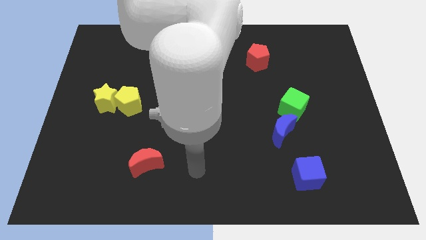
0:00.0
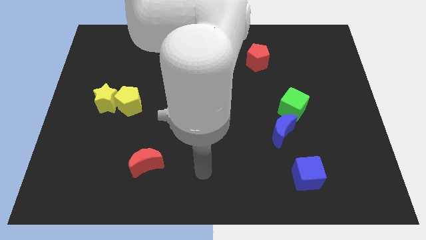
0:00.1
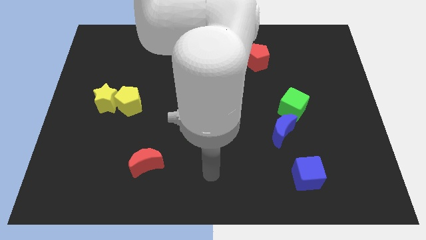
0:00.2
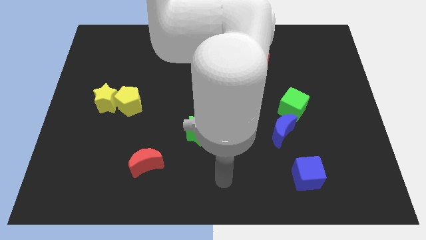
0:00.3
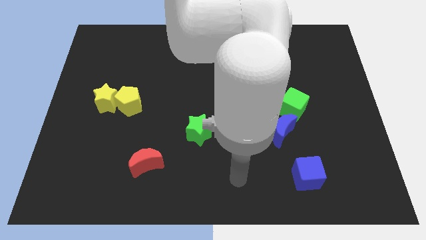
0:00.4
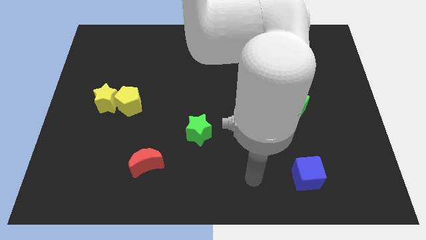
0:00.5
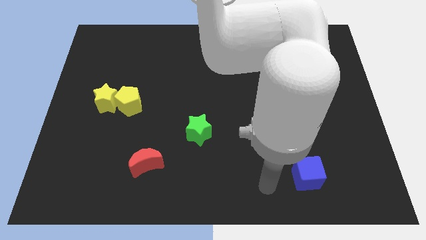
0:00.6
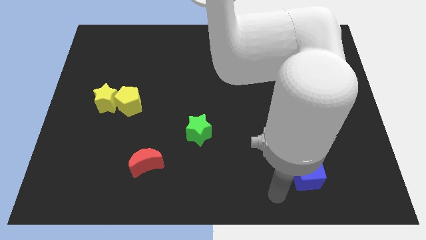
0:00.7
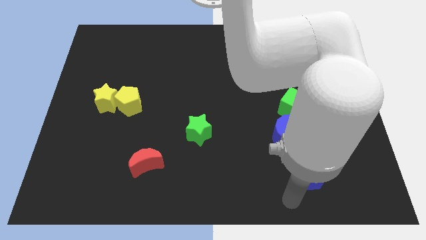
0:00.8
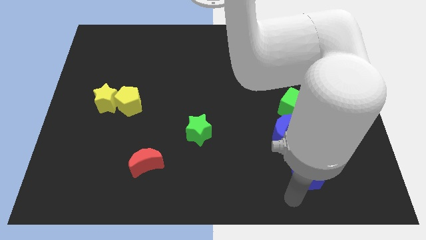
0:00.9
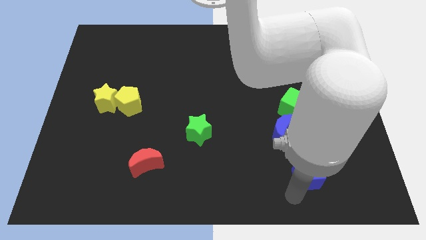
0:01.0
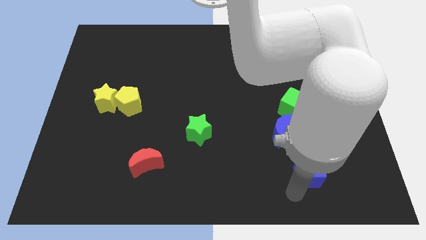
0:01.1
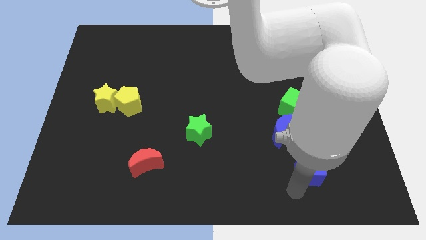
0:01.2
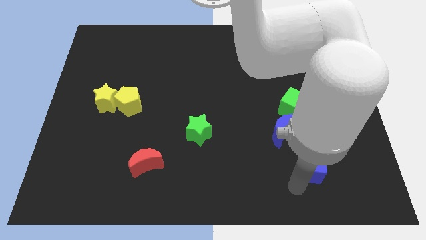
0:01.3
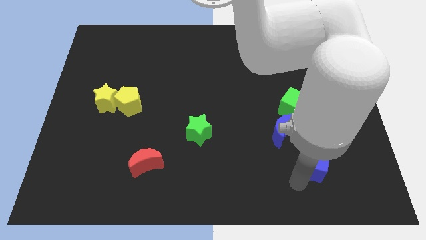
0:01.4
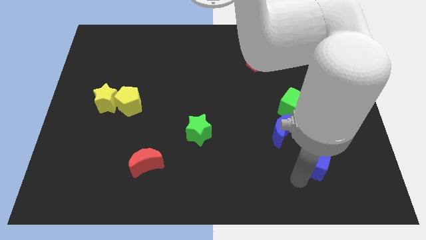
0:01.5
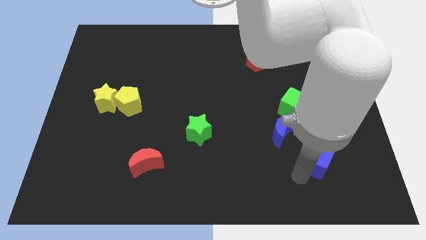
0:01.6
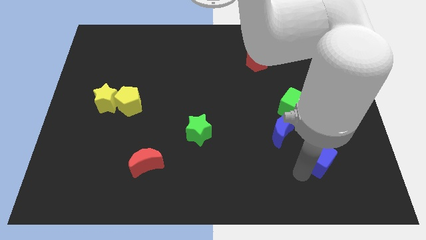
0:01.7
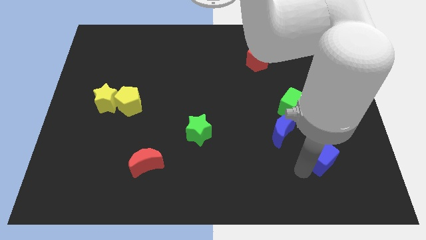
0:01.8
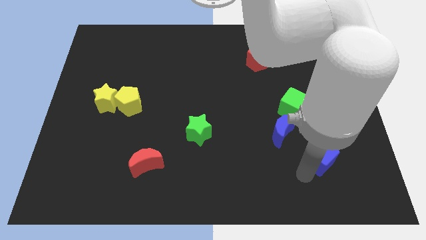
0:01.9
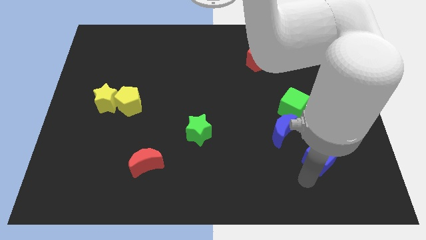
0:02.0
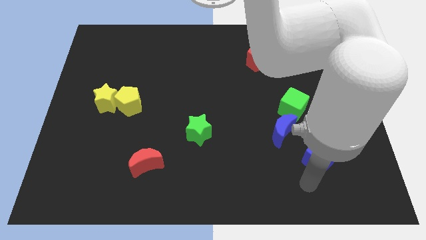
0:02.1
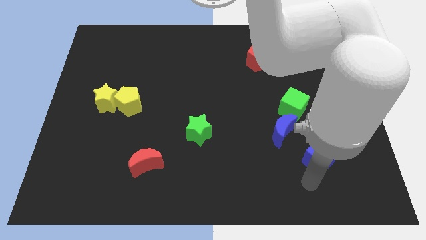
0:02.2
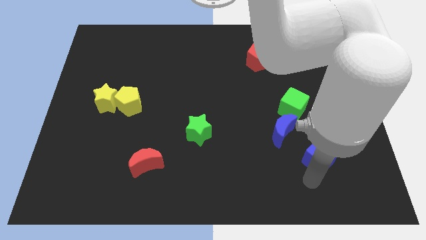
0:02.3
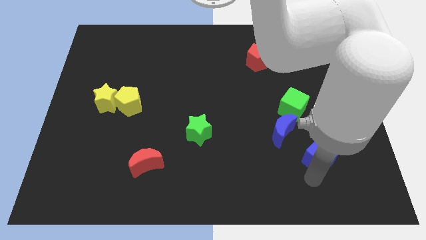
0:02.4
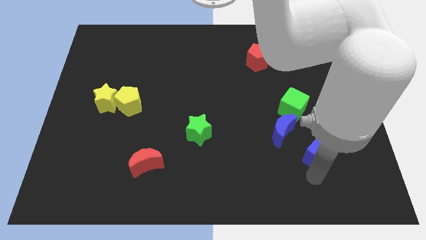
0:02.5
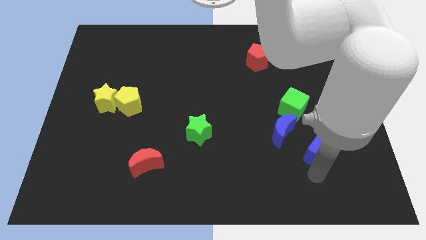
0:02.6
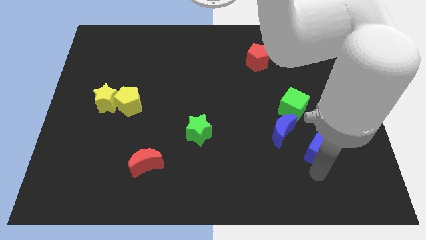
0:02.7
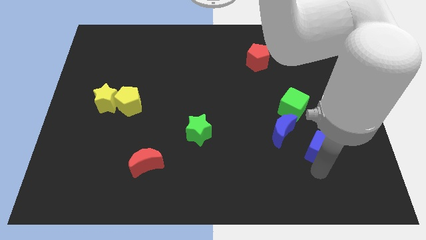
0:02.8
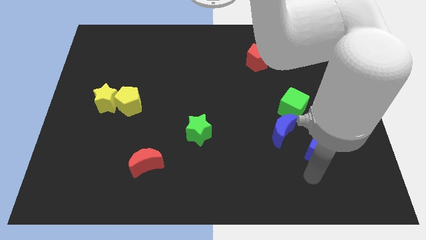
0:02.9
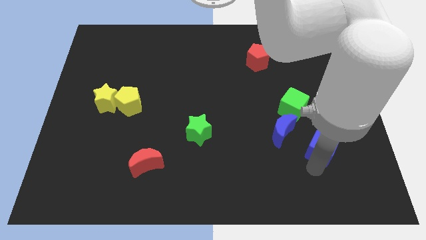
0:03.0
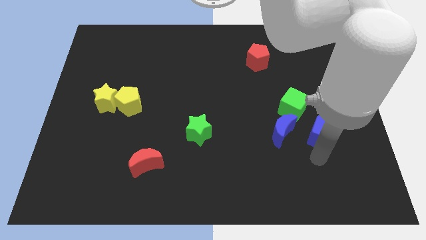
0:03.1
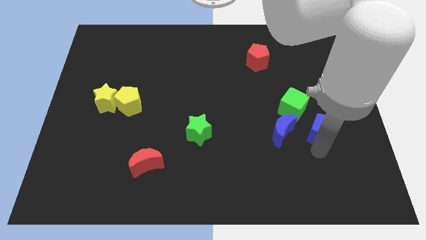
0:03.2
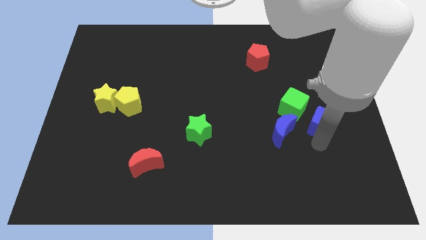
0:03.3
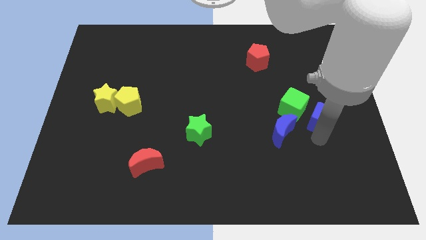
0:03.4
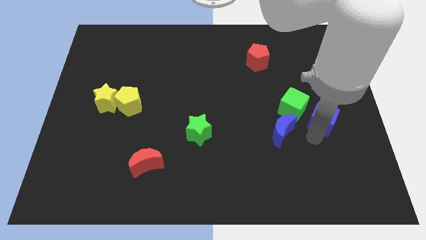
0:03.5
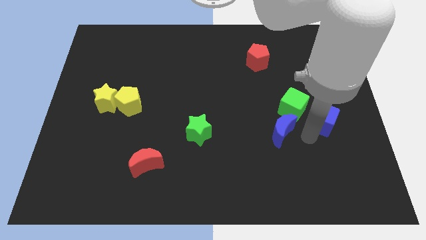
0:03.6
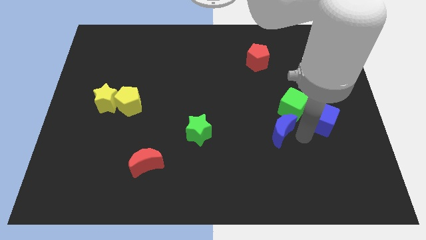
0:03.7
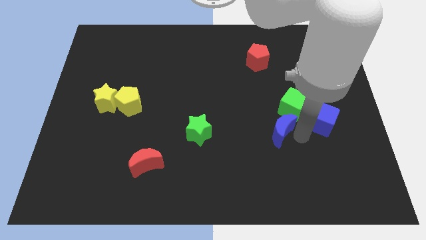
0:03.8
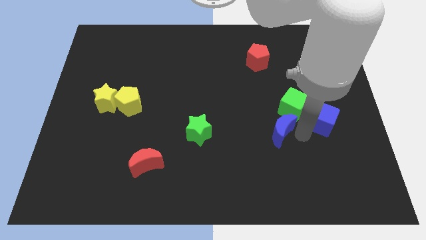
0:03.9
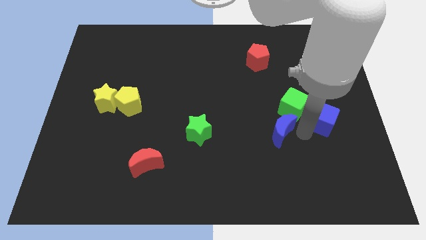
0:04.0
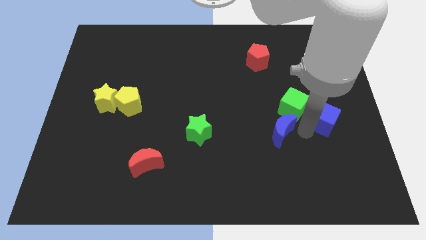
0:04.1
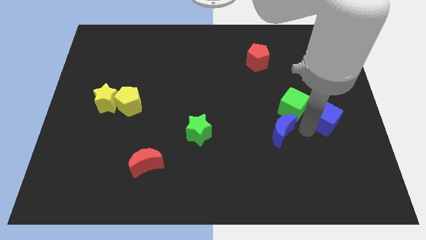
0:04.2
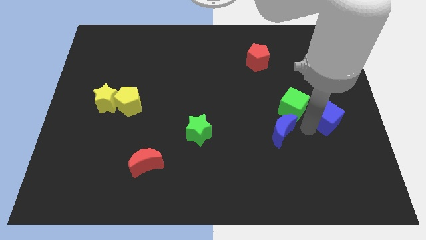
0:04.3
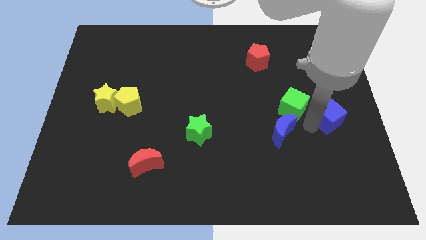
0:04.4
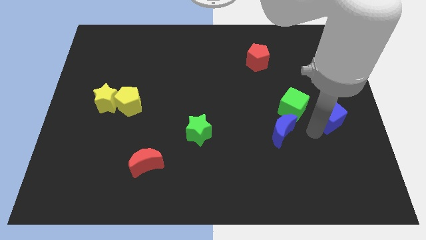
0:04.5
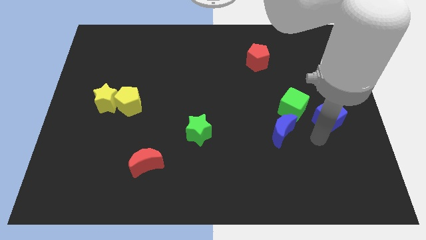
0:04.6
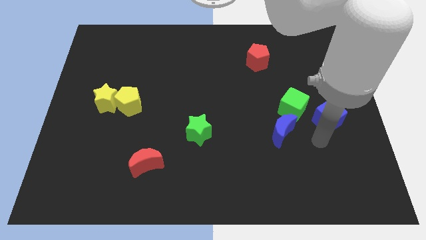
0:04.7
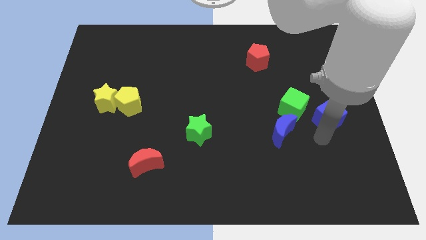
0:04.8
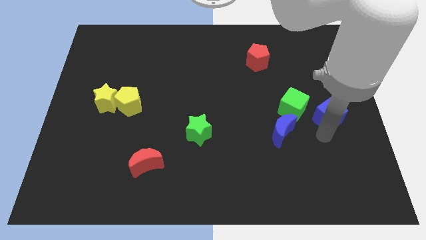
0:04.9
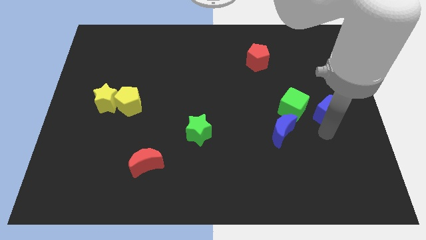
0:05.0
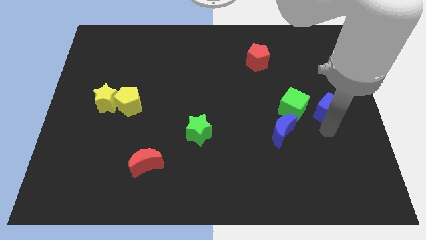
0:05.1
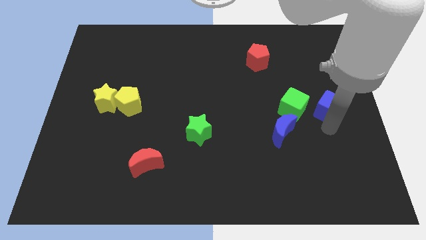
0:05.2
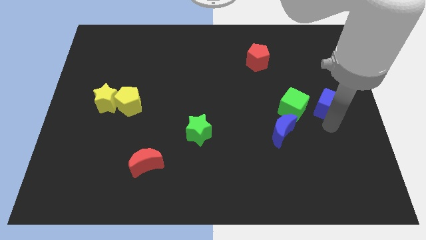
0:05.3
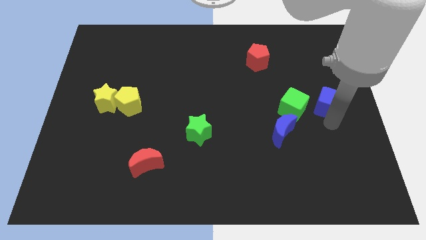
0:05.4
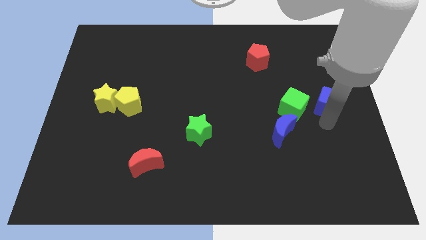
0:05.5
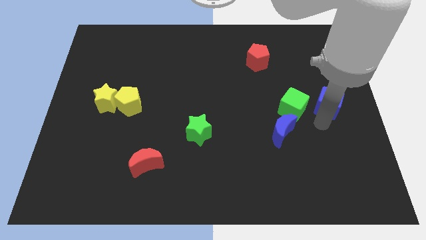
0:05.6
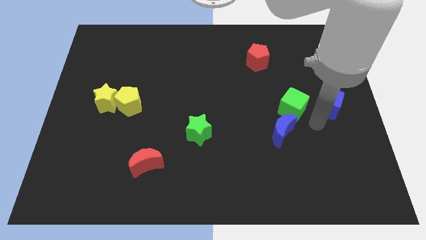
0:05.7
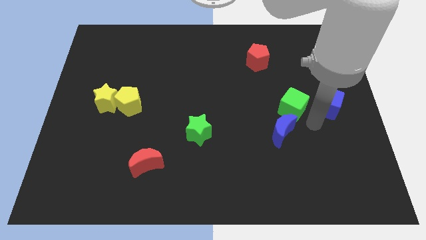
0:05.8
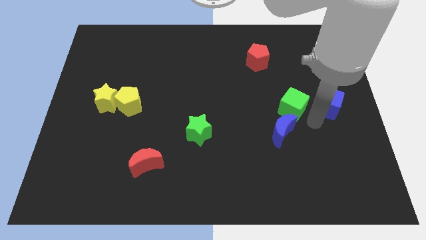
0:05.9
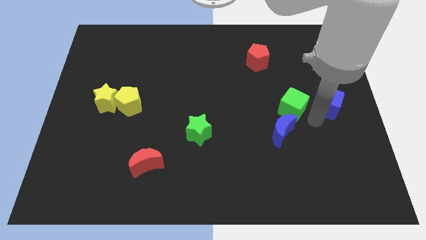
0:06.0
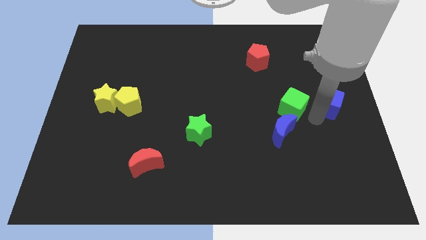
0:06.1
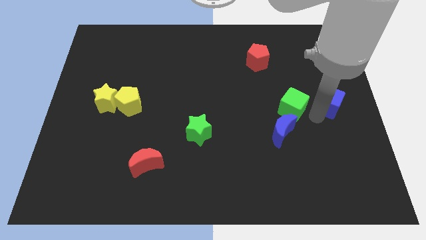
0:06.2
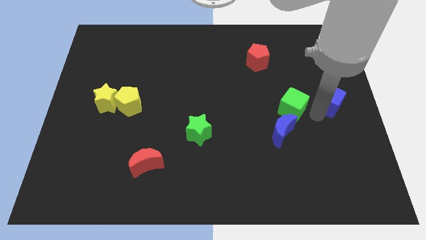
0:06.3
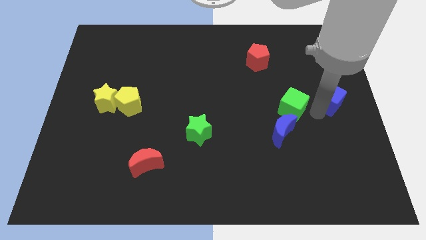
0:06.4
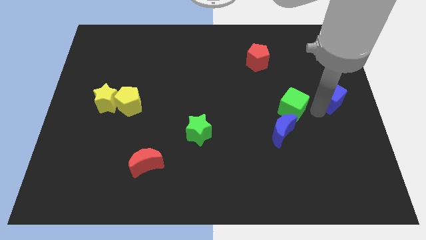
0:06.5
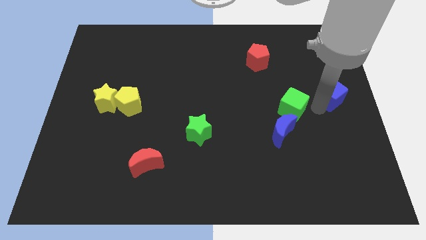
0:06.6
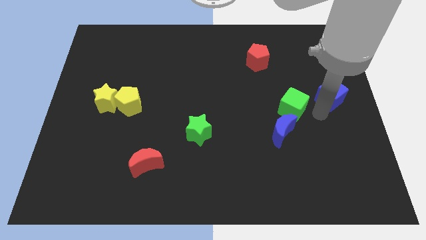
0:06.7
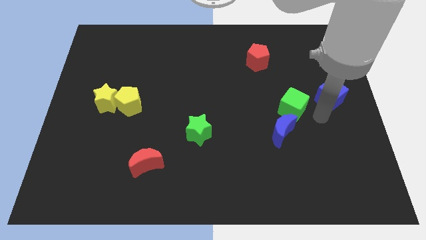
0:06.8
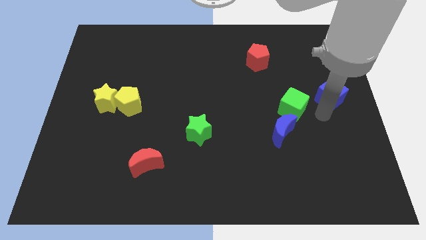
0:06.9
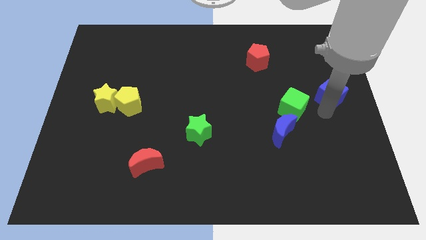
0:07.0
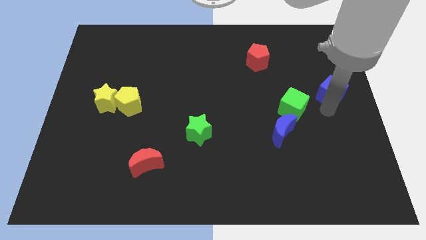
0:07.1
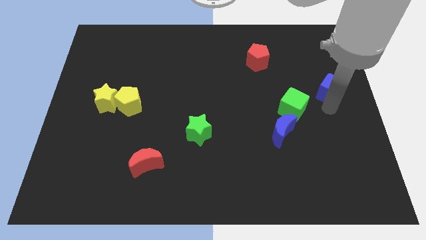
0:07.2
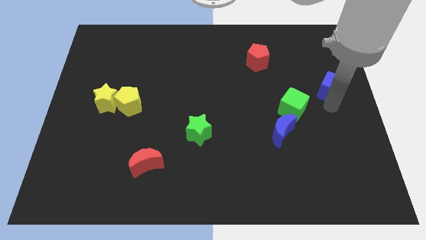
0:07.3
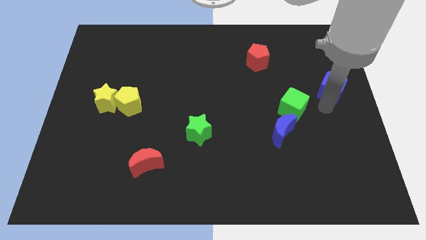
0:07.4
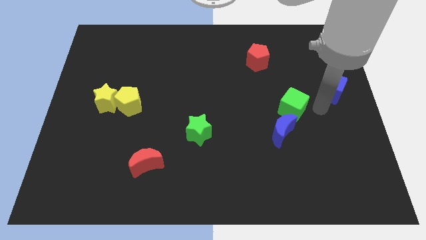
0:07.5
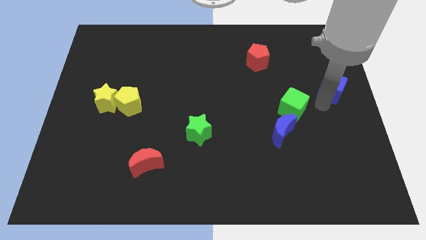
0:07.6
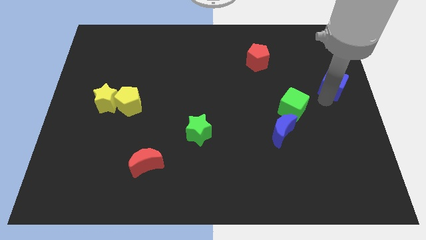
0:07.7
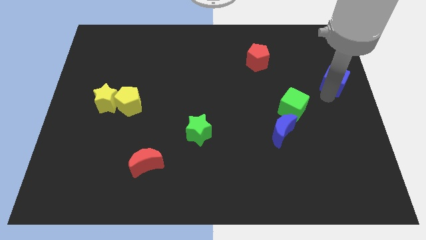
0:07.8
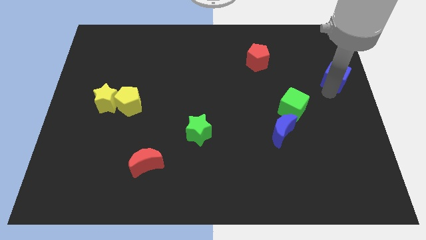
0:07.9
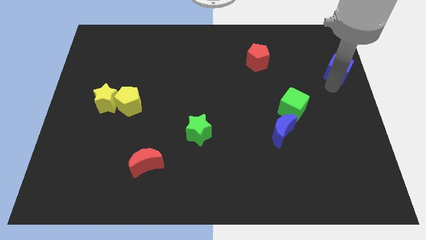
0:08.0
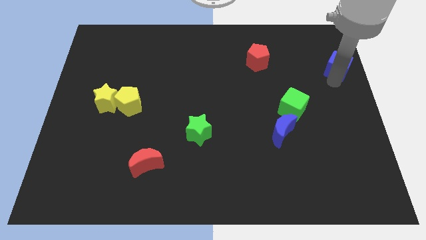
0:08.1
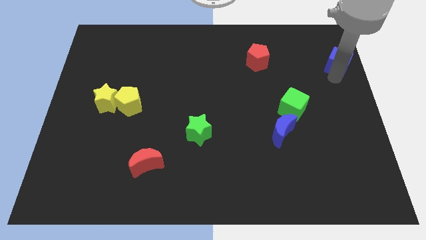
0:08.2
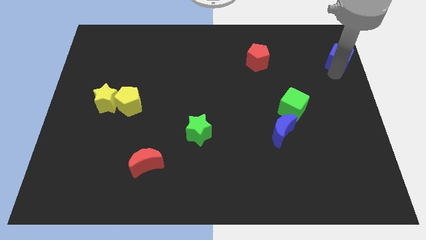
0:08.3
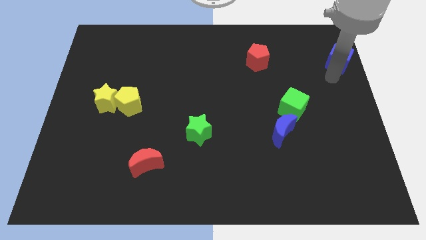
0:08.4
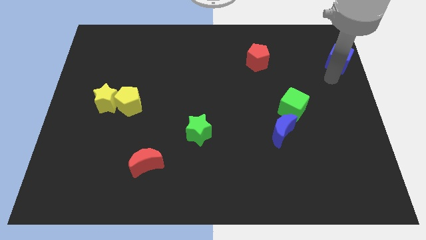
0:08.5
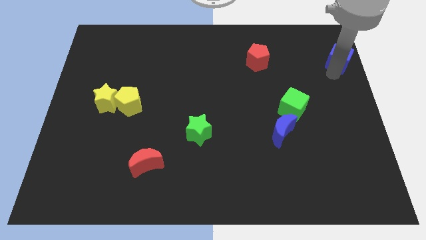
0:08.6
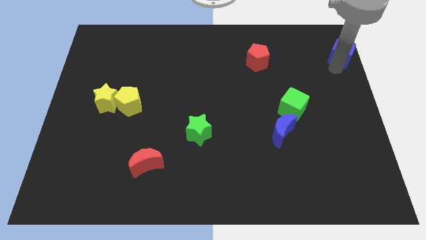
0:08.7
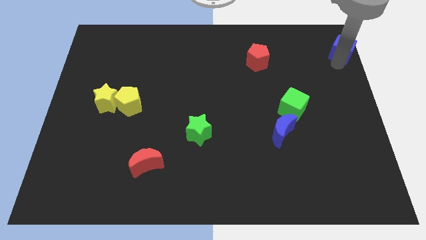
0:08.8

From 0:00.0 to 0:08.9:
put the blue cube to the top right of the board
